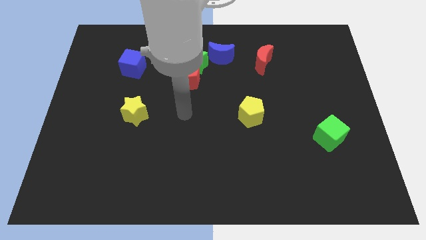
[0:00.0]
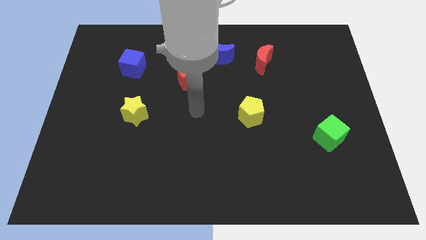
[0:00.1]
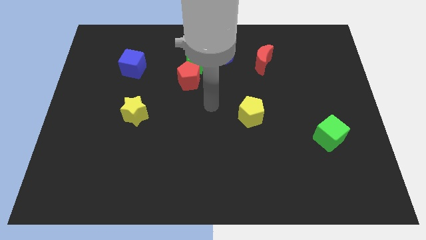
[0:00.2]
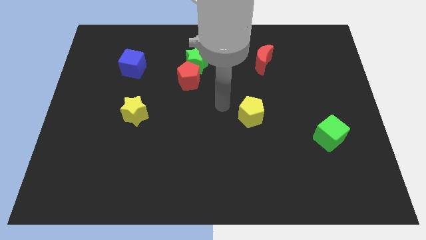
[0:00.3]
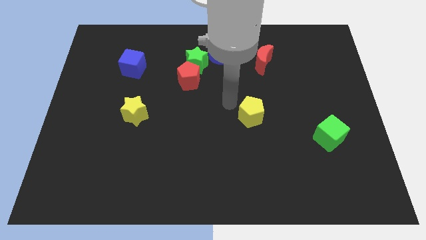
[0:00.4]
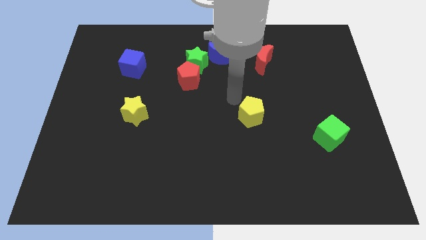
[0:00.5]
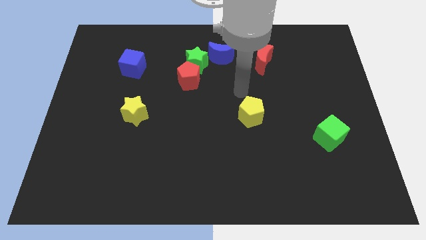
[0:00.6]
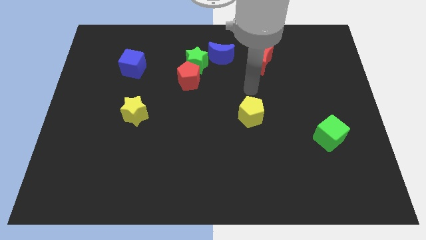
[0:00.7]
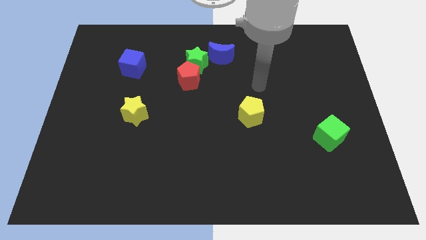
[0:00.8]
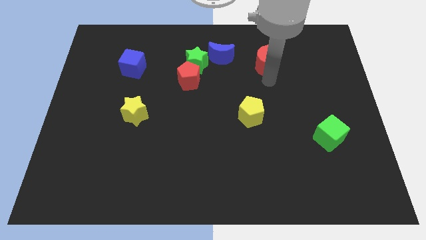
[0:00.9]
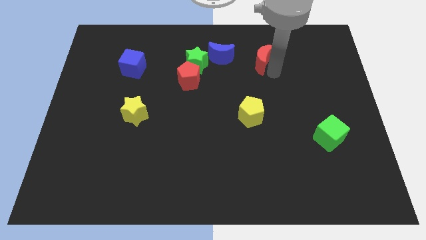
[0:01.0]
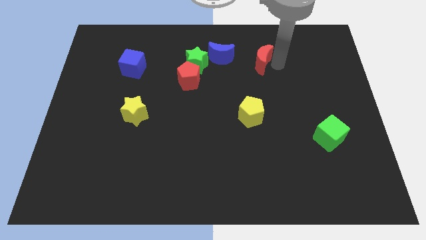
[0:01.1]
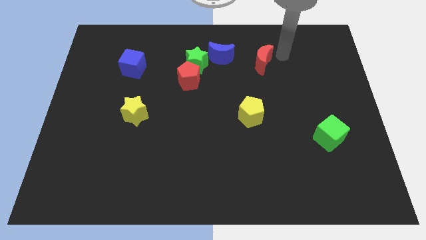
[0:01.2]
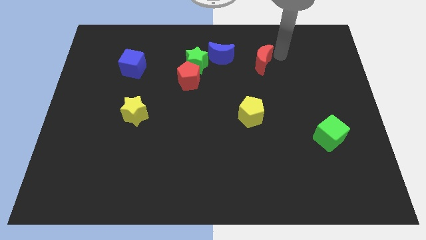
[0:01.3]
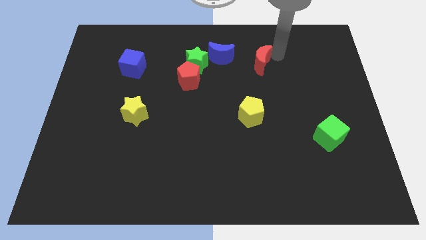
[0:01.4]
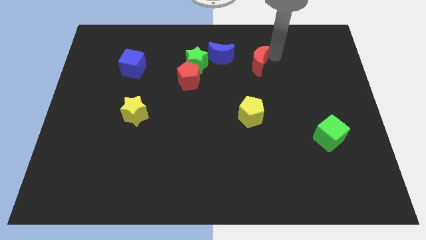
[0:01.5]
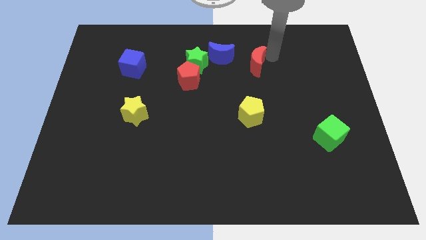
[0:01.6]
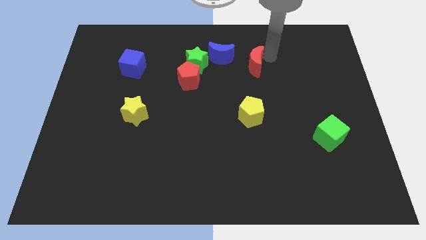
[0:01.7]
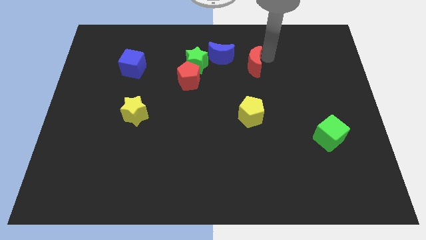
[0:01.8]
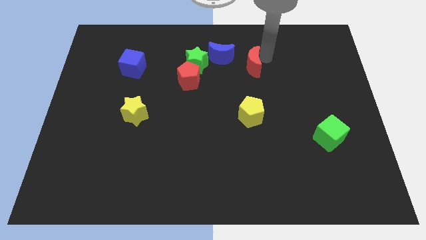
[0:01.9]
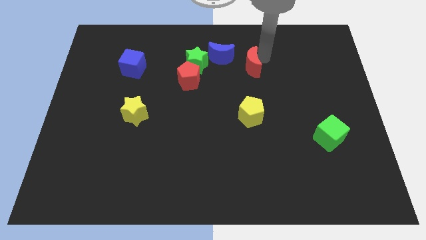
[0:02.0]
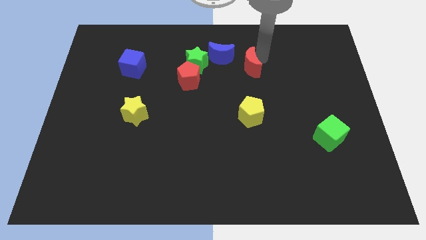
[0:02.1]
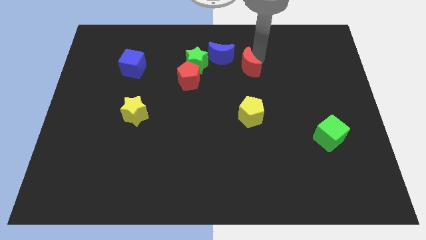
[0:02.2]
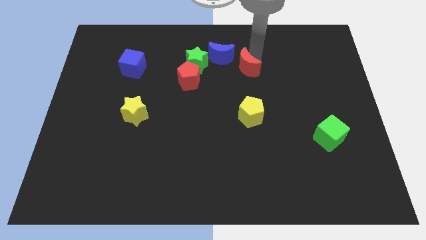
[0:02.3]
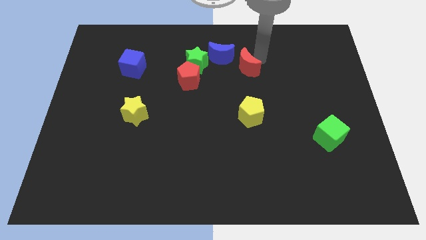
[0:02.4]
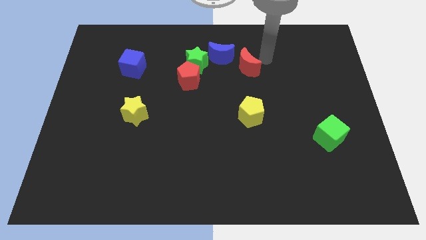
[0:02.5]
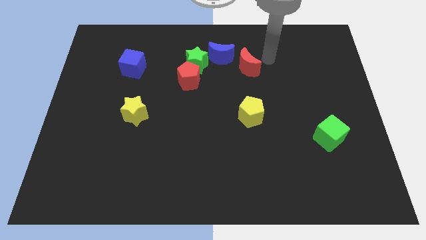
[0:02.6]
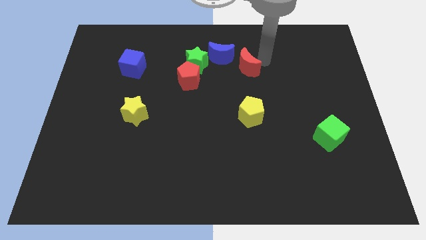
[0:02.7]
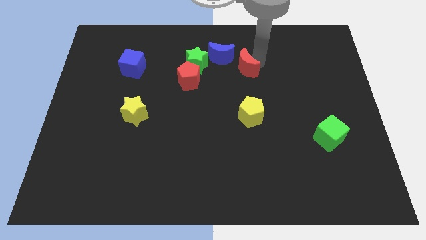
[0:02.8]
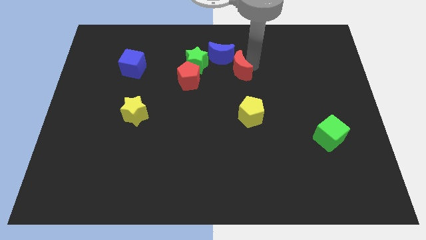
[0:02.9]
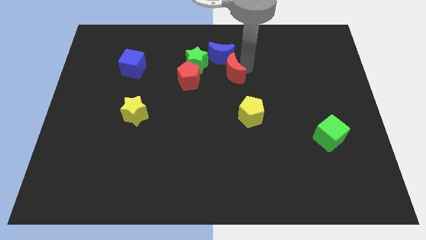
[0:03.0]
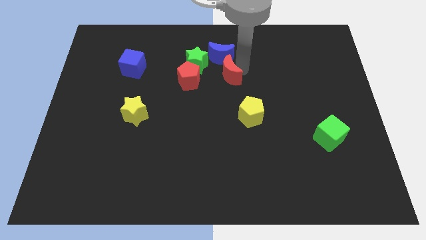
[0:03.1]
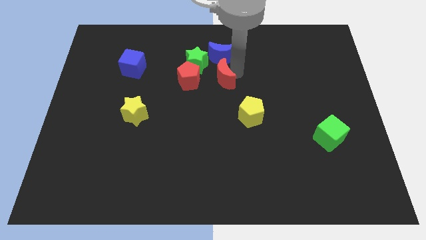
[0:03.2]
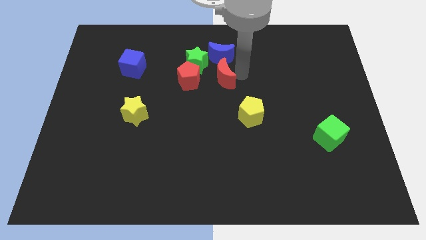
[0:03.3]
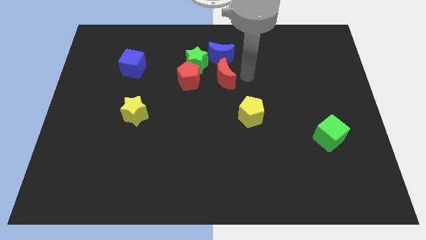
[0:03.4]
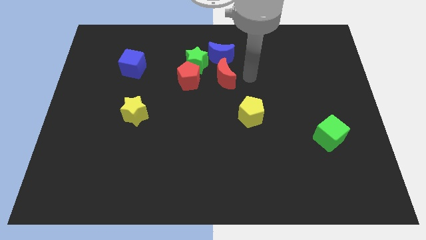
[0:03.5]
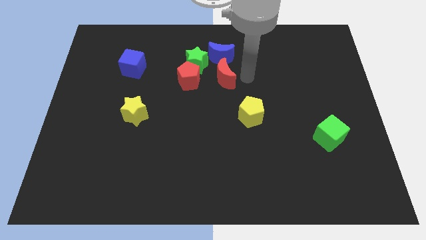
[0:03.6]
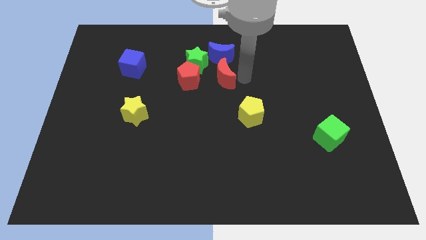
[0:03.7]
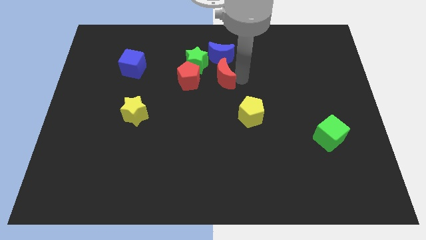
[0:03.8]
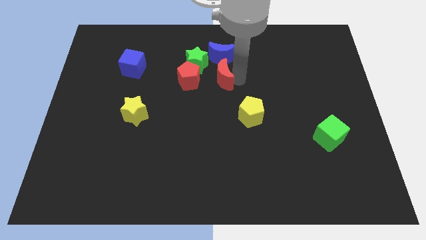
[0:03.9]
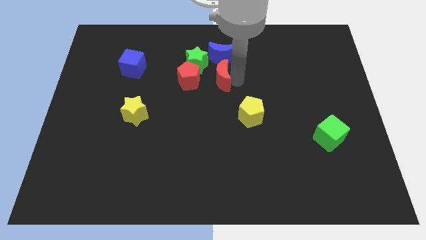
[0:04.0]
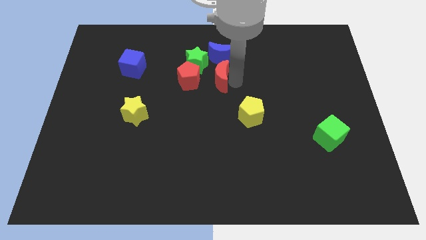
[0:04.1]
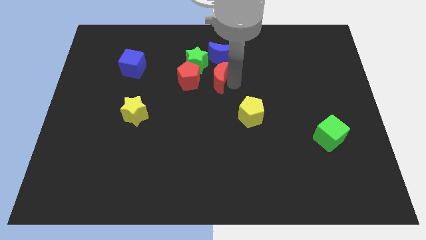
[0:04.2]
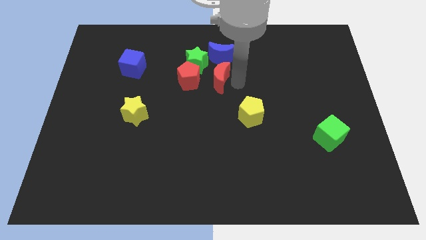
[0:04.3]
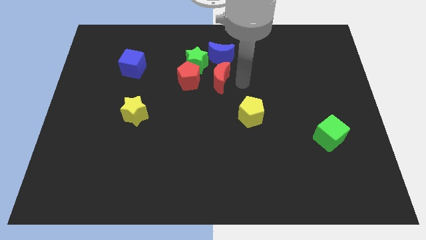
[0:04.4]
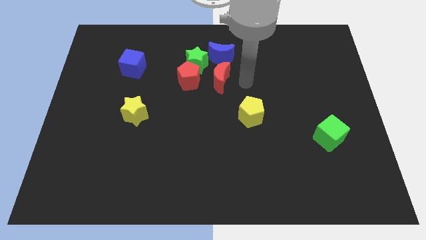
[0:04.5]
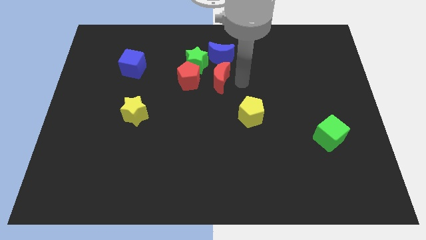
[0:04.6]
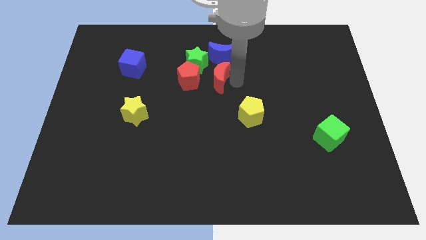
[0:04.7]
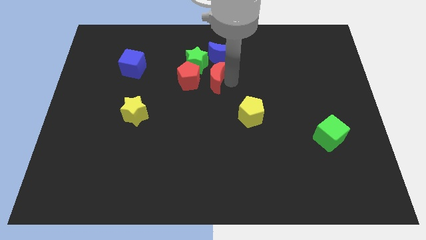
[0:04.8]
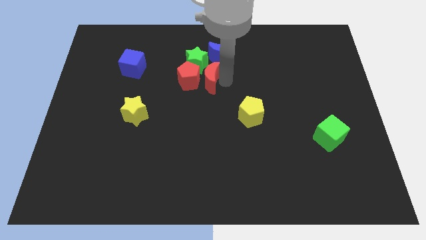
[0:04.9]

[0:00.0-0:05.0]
move the red moon close to the red pentagon

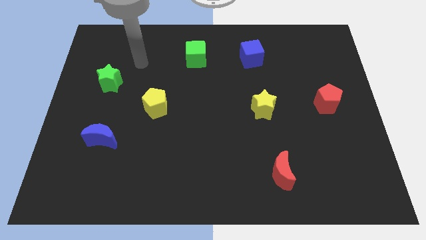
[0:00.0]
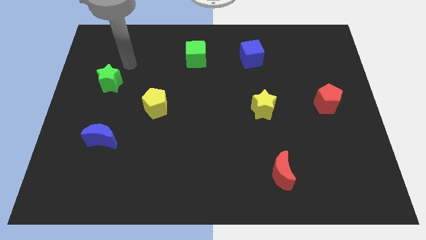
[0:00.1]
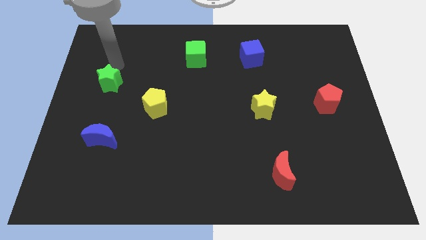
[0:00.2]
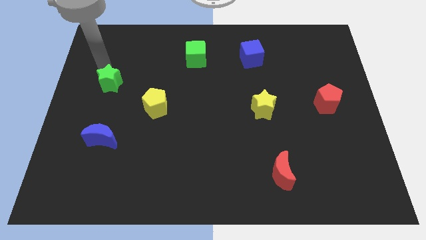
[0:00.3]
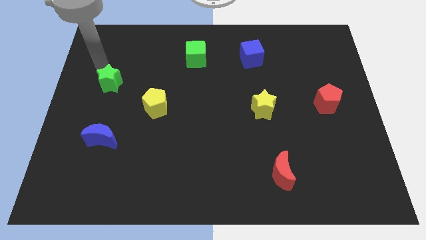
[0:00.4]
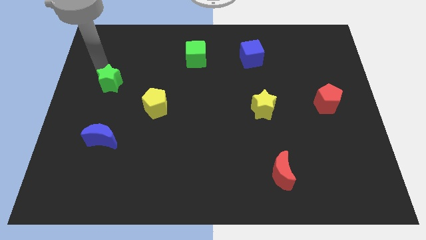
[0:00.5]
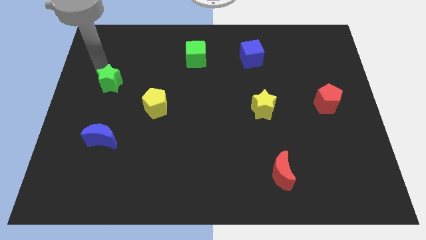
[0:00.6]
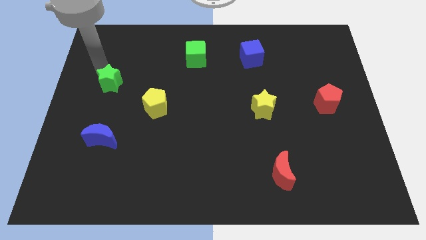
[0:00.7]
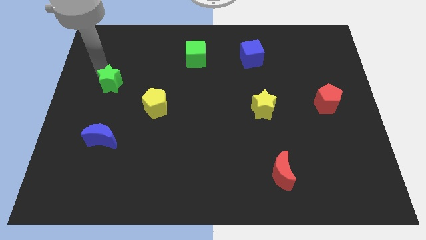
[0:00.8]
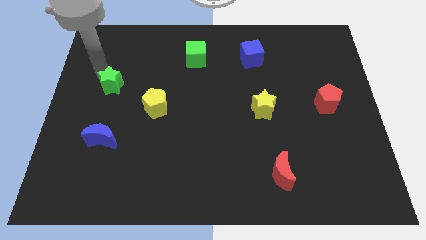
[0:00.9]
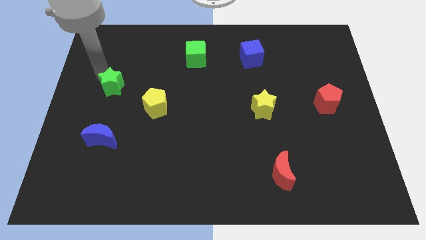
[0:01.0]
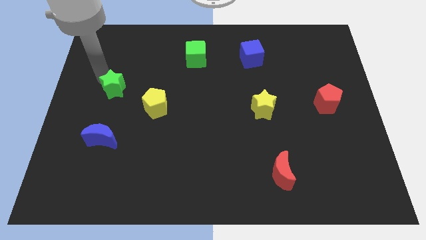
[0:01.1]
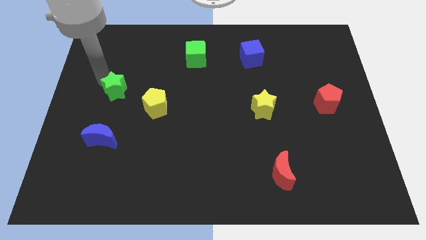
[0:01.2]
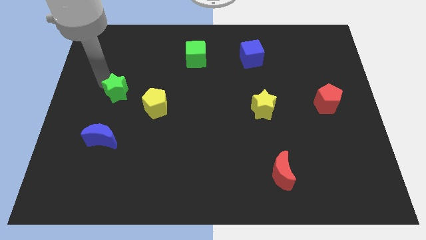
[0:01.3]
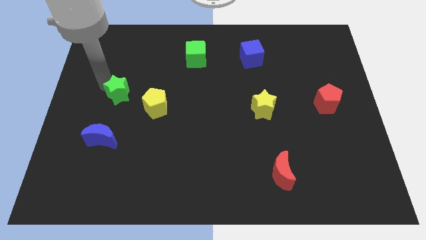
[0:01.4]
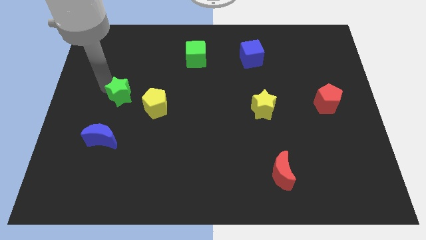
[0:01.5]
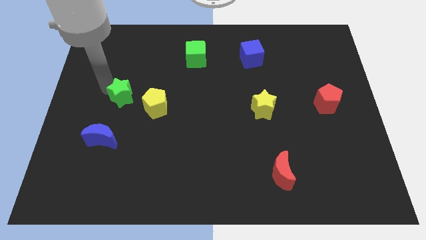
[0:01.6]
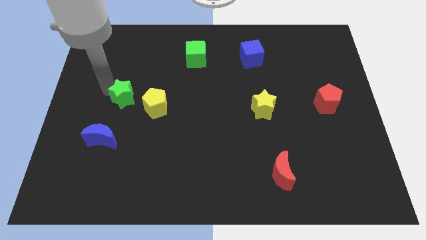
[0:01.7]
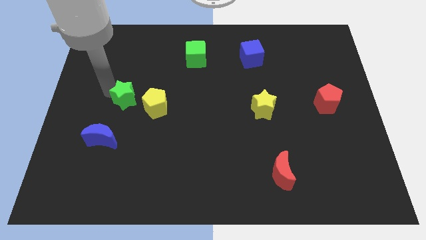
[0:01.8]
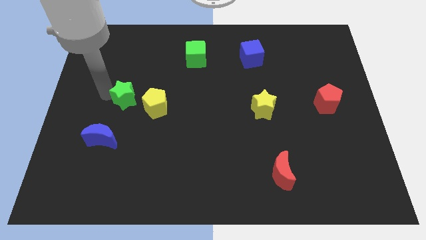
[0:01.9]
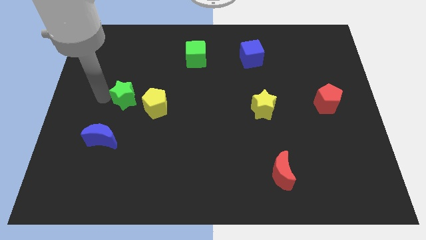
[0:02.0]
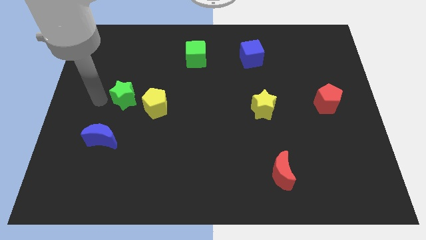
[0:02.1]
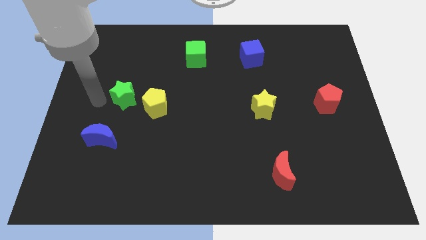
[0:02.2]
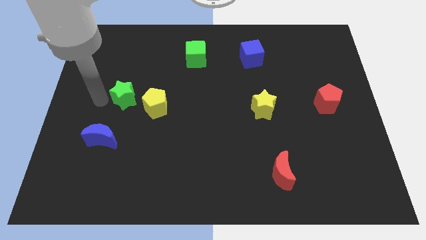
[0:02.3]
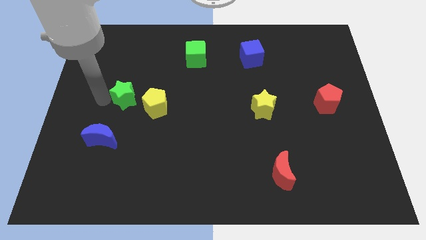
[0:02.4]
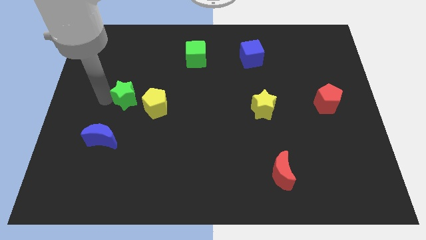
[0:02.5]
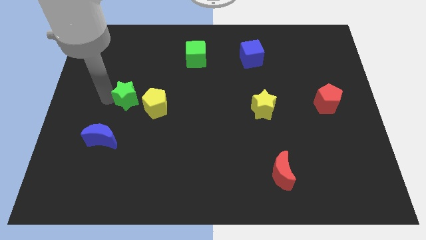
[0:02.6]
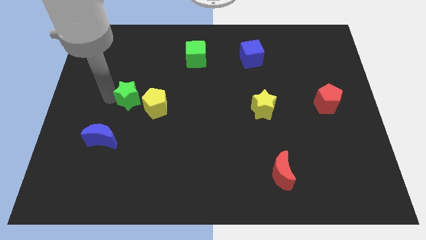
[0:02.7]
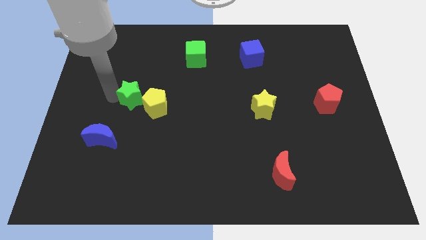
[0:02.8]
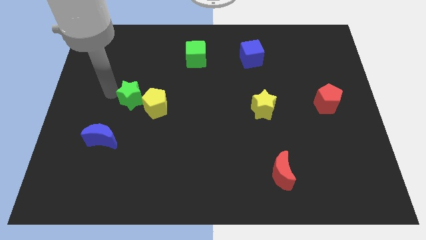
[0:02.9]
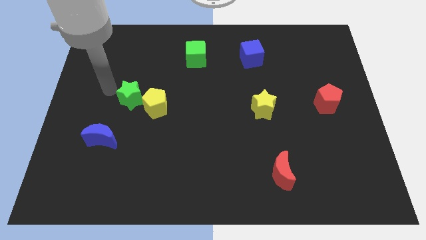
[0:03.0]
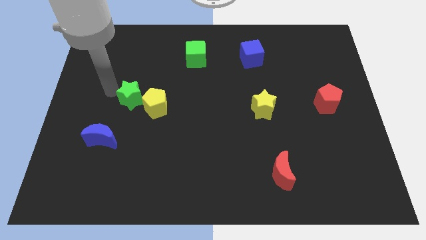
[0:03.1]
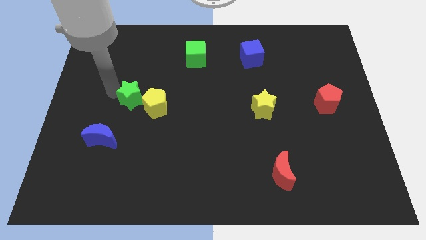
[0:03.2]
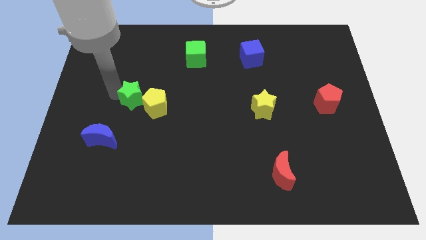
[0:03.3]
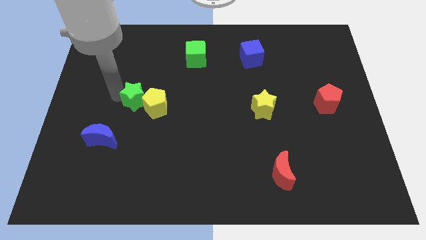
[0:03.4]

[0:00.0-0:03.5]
slide the green star to the yellow pentagon
